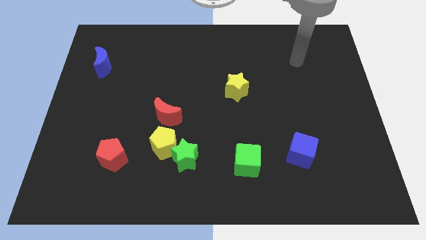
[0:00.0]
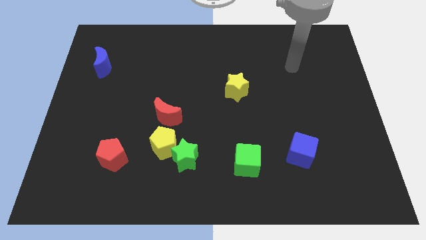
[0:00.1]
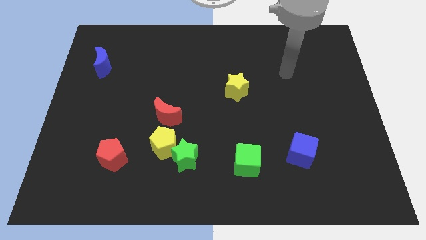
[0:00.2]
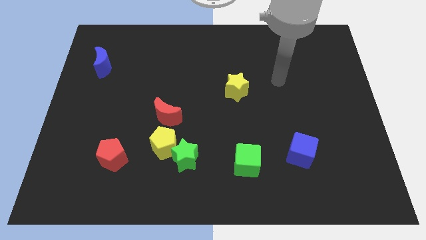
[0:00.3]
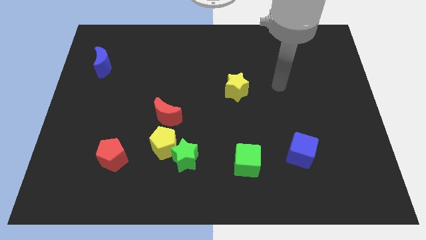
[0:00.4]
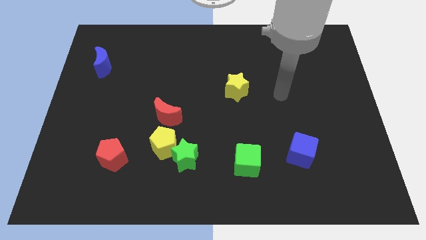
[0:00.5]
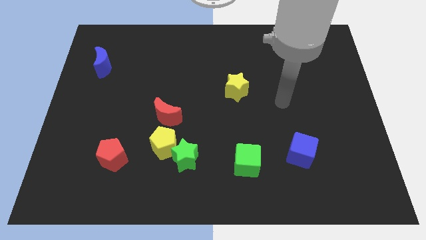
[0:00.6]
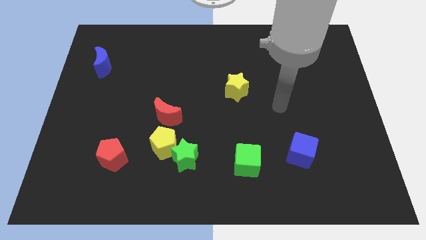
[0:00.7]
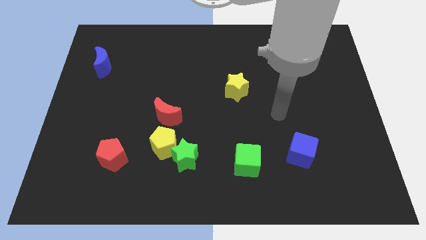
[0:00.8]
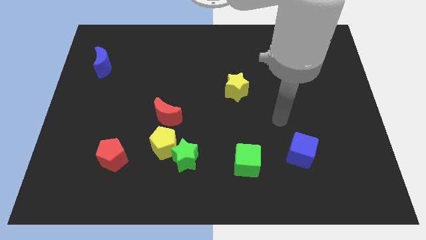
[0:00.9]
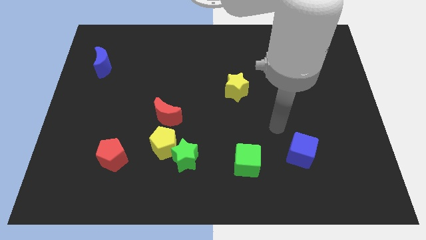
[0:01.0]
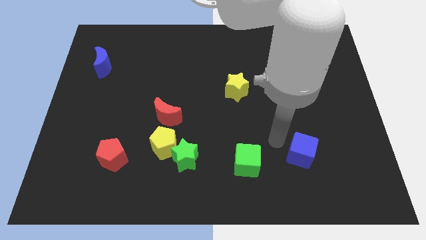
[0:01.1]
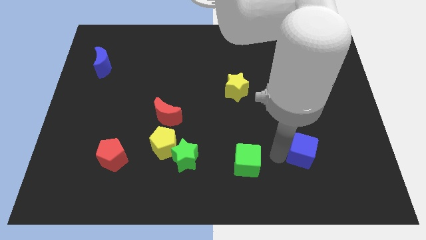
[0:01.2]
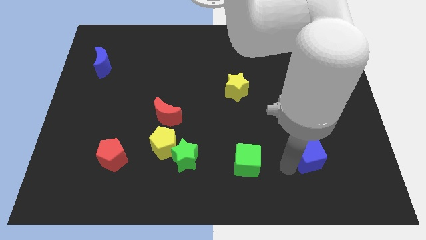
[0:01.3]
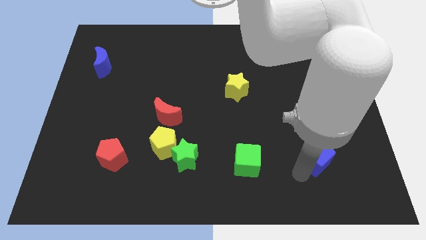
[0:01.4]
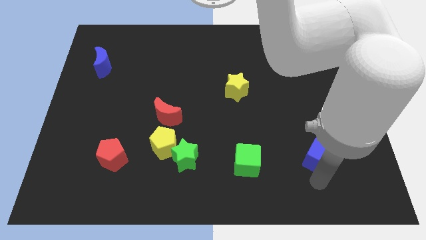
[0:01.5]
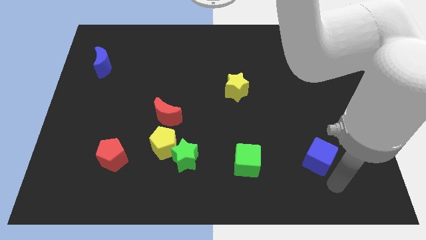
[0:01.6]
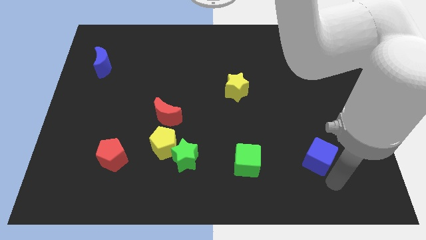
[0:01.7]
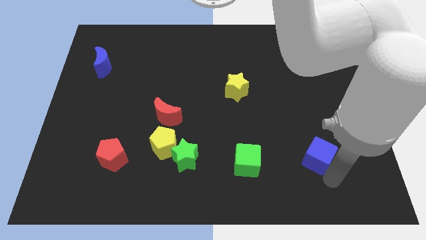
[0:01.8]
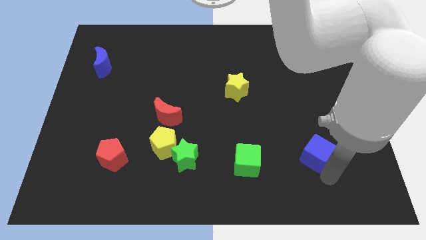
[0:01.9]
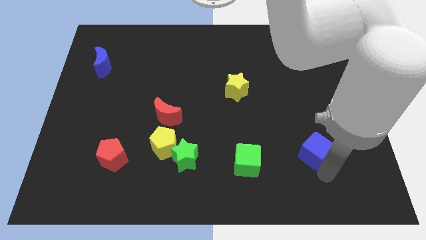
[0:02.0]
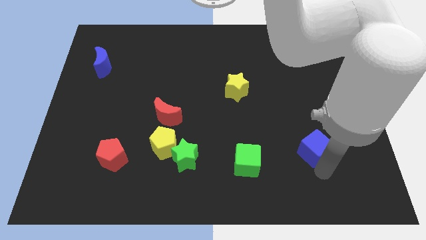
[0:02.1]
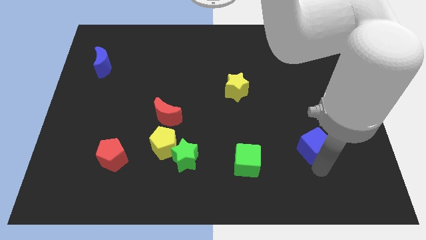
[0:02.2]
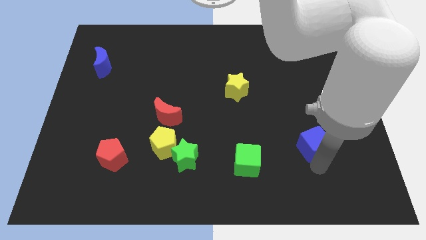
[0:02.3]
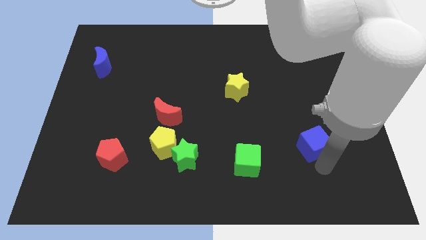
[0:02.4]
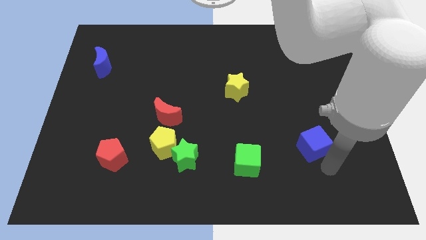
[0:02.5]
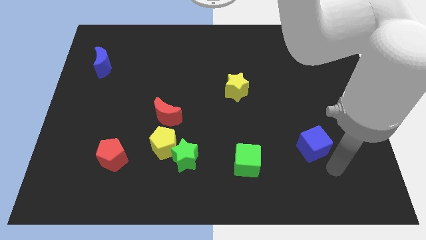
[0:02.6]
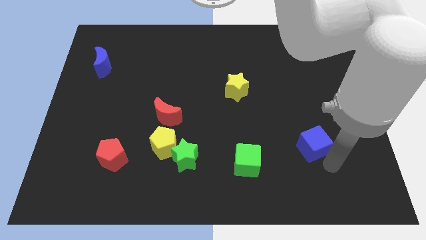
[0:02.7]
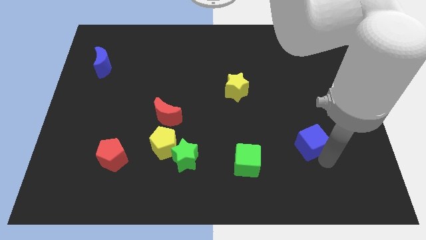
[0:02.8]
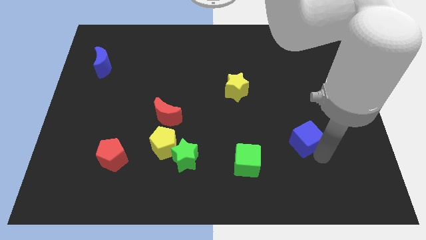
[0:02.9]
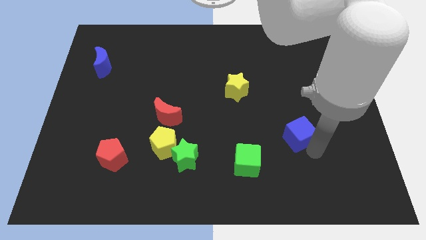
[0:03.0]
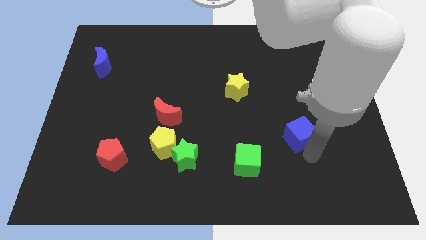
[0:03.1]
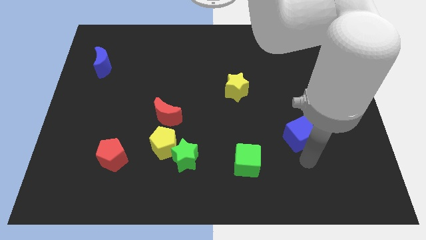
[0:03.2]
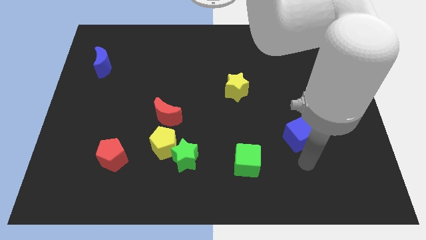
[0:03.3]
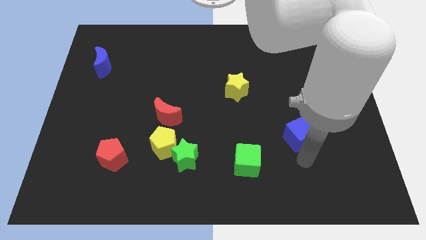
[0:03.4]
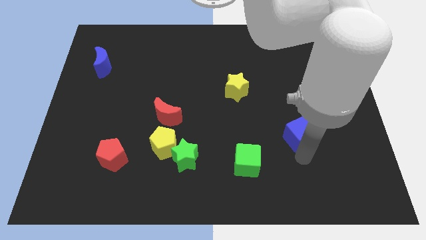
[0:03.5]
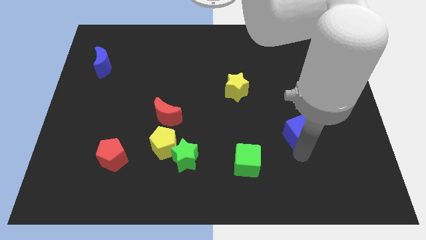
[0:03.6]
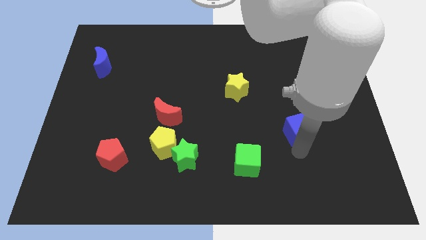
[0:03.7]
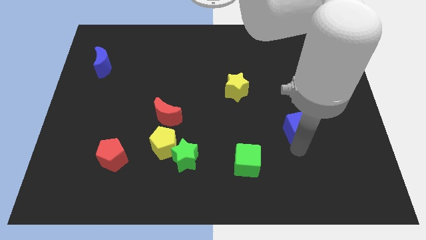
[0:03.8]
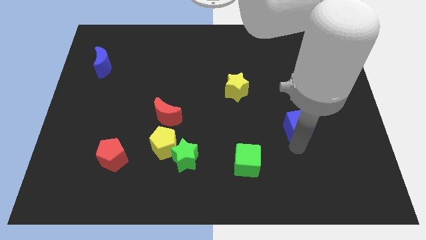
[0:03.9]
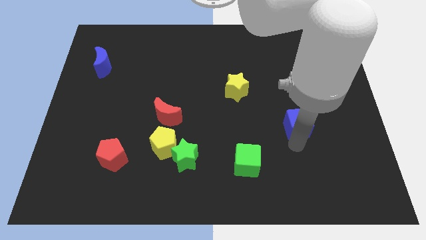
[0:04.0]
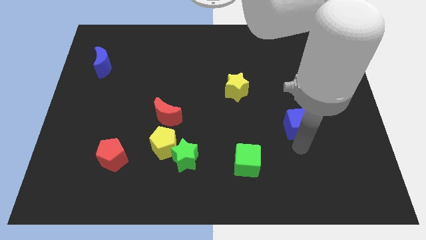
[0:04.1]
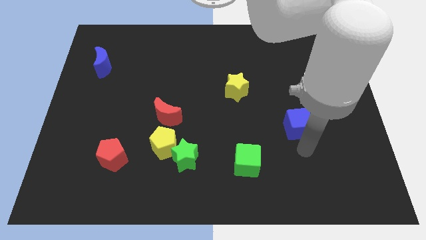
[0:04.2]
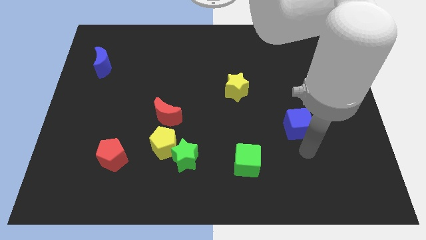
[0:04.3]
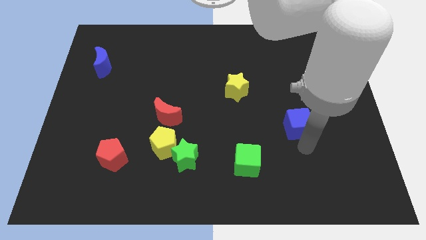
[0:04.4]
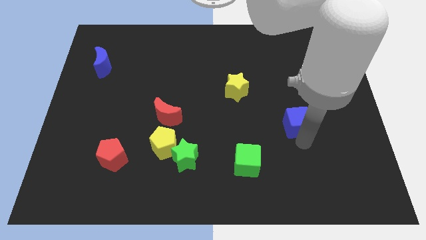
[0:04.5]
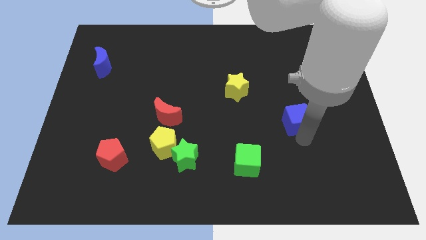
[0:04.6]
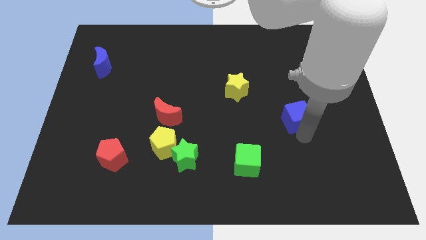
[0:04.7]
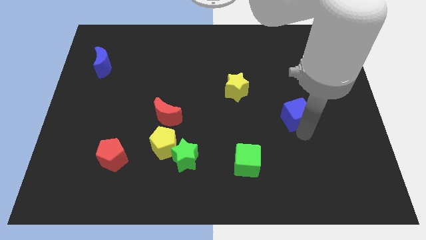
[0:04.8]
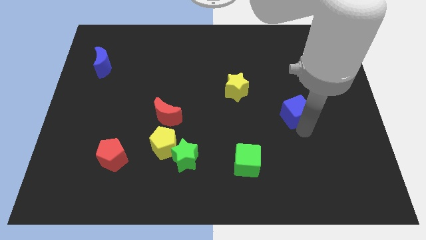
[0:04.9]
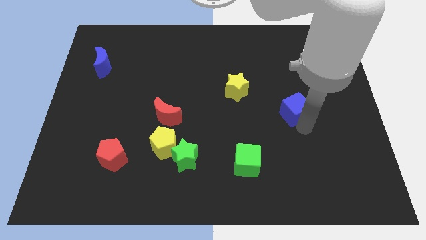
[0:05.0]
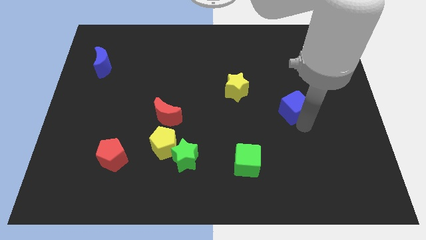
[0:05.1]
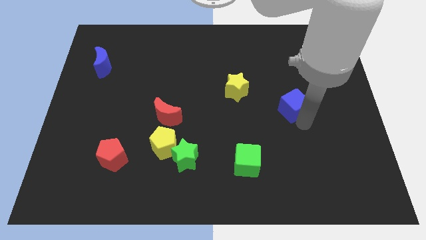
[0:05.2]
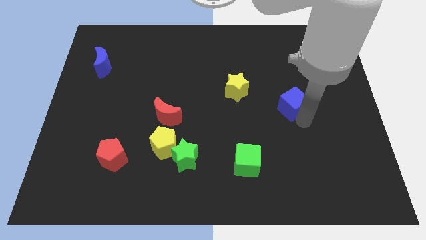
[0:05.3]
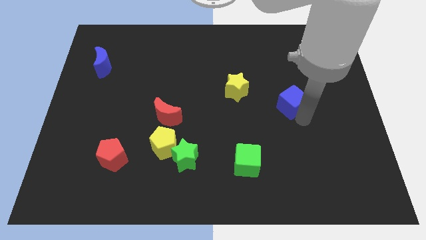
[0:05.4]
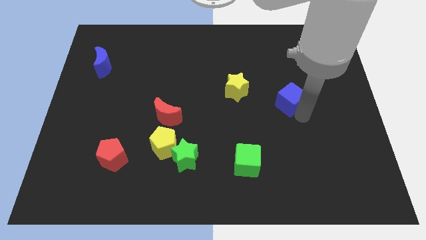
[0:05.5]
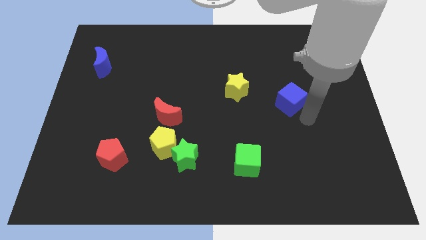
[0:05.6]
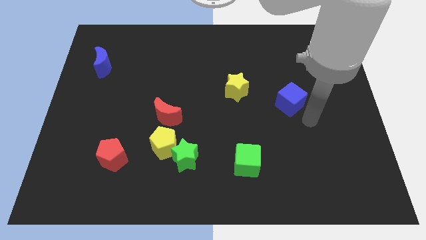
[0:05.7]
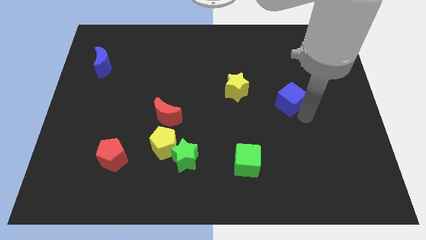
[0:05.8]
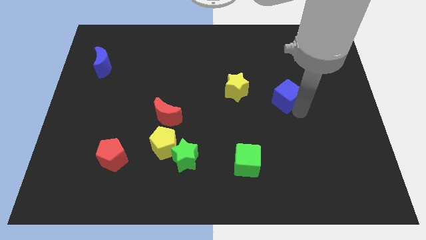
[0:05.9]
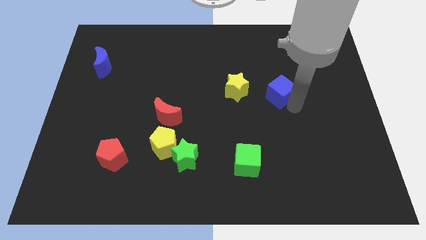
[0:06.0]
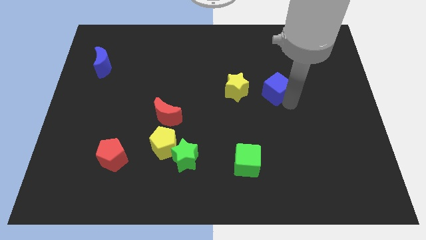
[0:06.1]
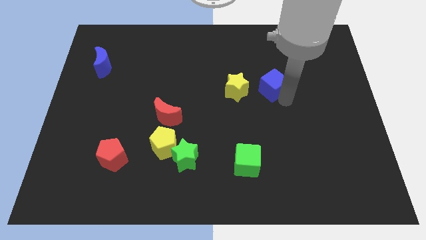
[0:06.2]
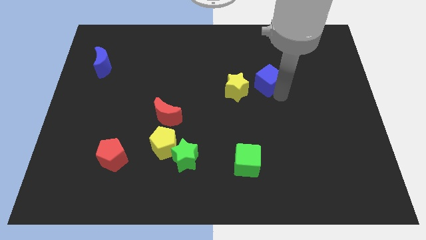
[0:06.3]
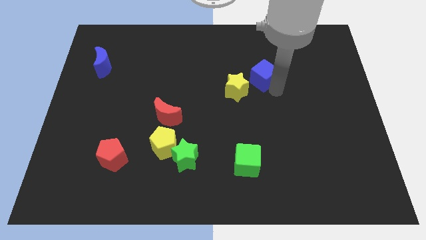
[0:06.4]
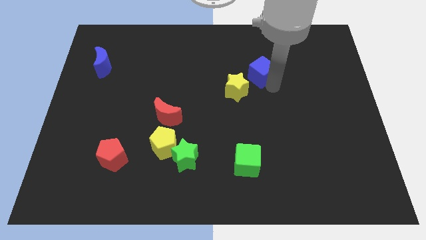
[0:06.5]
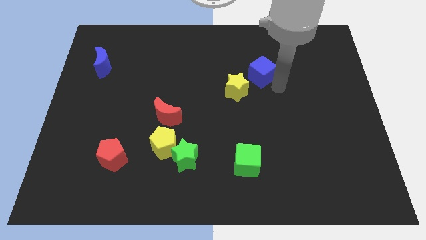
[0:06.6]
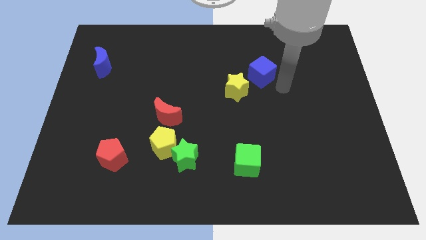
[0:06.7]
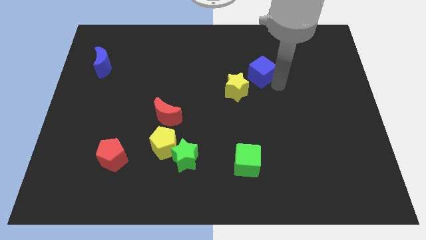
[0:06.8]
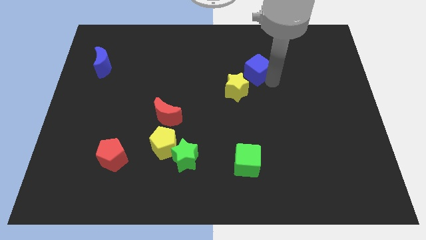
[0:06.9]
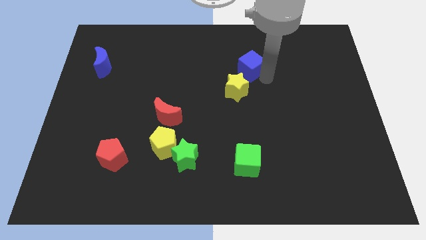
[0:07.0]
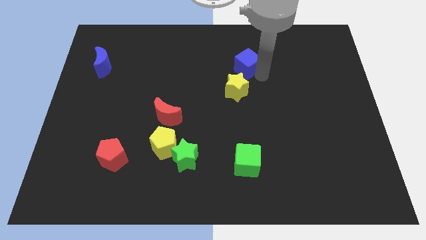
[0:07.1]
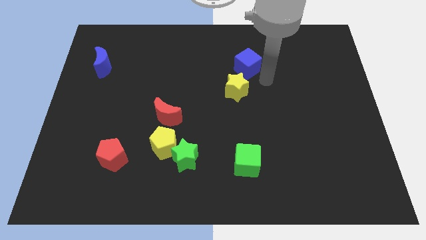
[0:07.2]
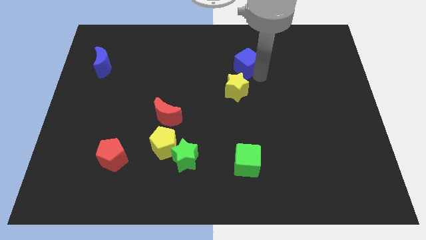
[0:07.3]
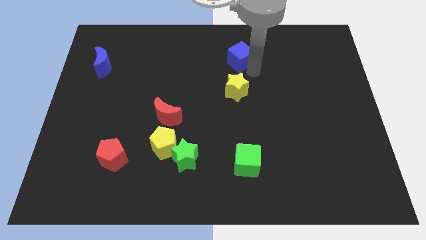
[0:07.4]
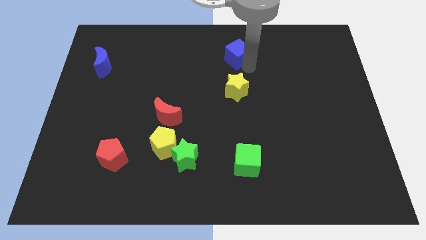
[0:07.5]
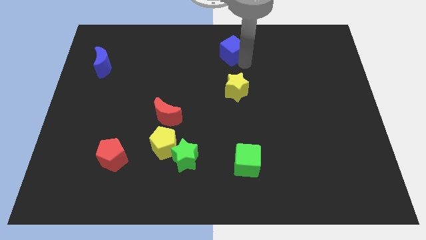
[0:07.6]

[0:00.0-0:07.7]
push the blue cube to the top side
